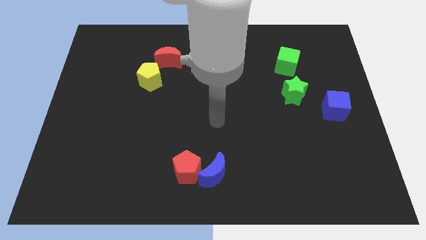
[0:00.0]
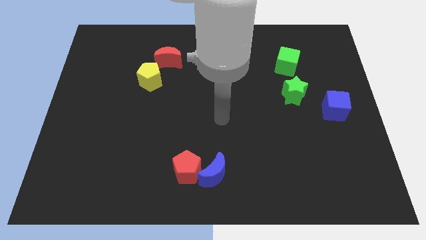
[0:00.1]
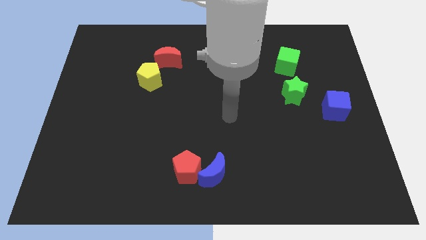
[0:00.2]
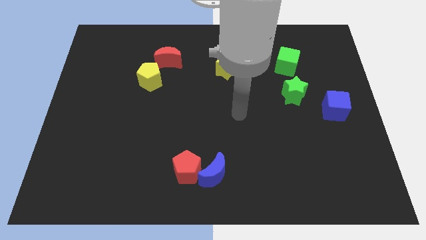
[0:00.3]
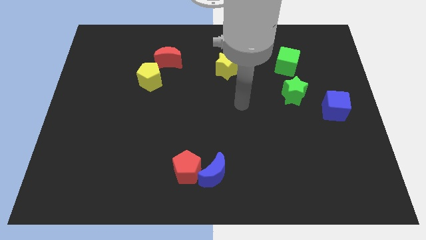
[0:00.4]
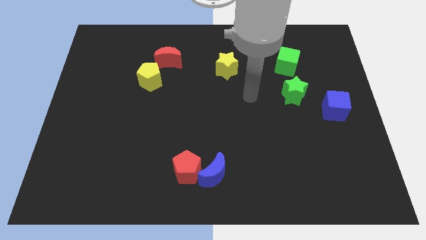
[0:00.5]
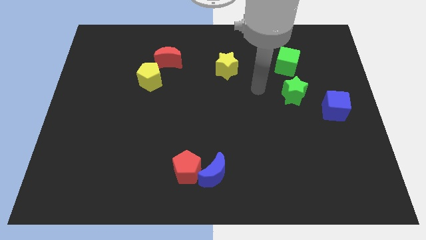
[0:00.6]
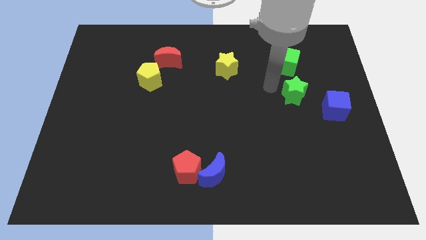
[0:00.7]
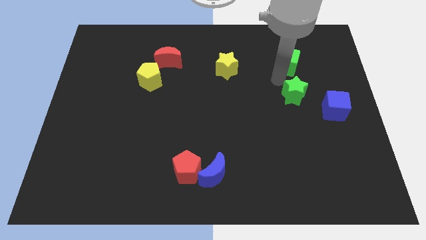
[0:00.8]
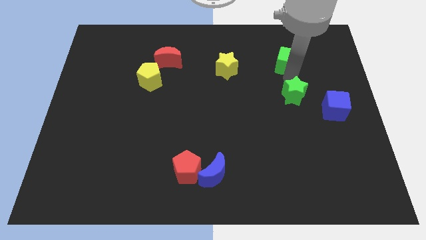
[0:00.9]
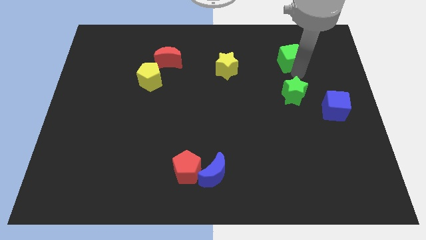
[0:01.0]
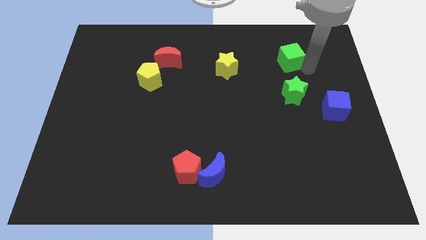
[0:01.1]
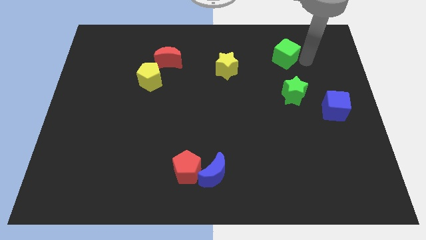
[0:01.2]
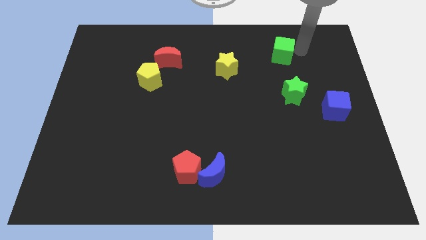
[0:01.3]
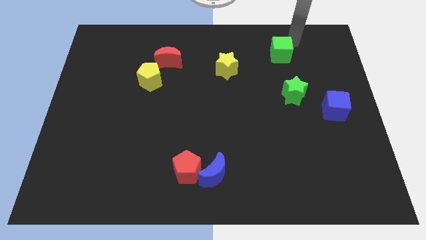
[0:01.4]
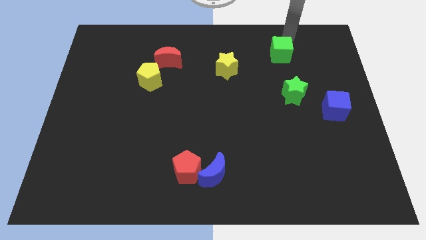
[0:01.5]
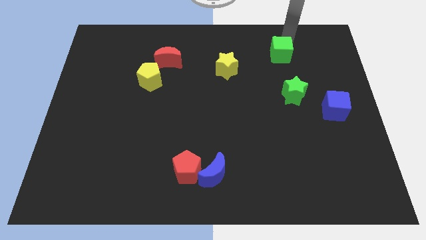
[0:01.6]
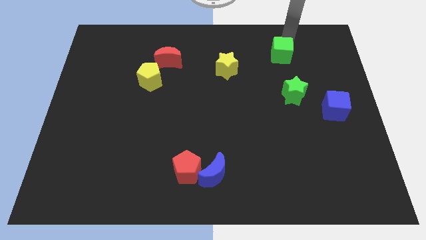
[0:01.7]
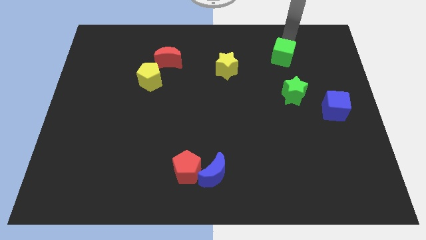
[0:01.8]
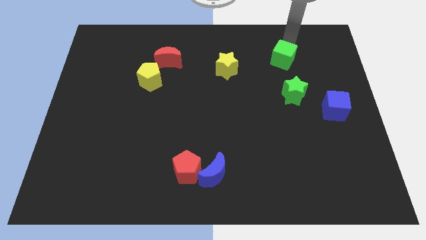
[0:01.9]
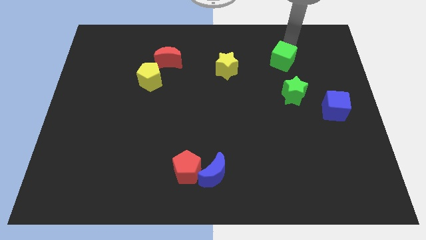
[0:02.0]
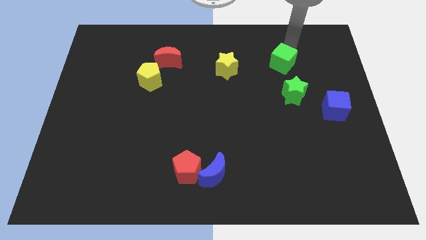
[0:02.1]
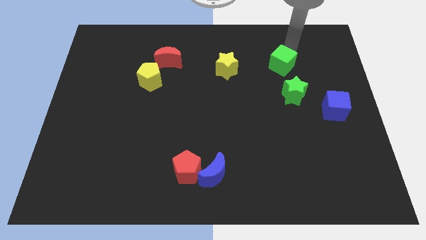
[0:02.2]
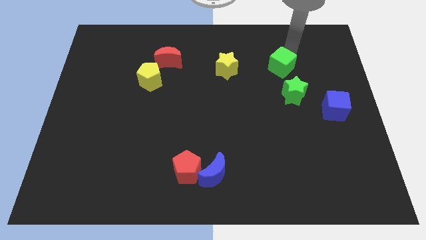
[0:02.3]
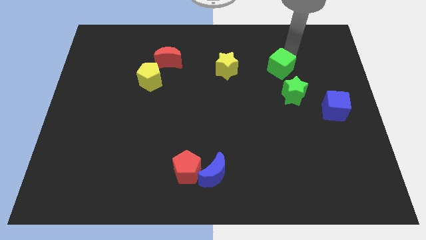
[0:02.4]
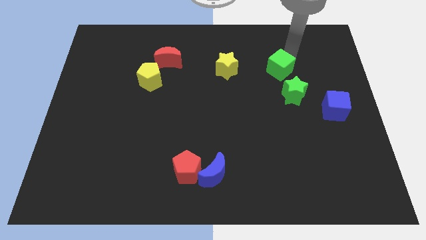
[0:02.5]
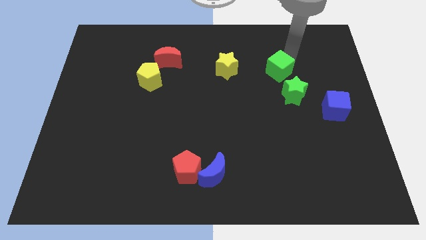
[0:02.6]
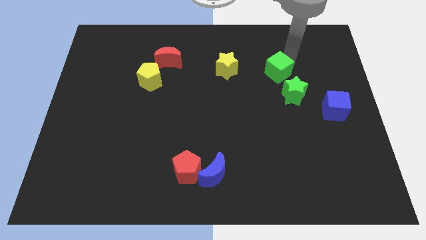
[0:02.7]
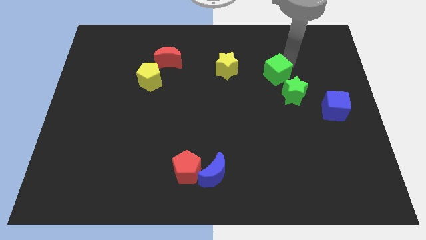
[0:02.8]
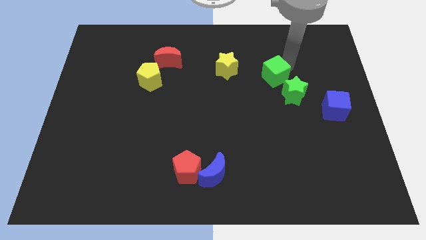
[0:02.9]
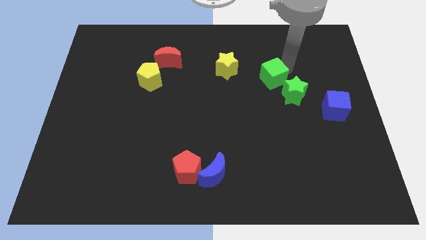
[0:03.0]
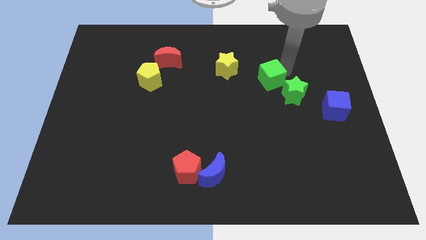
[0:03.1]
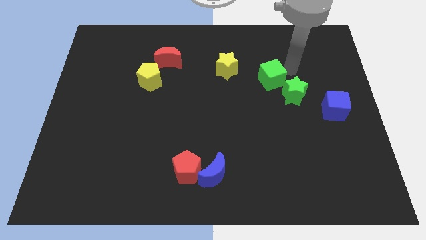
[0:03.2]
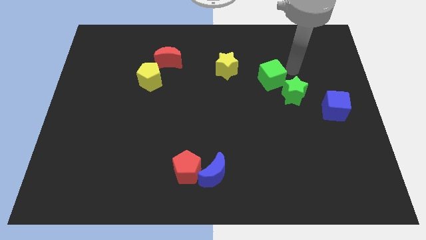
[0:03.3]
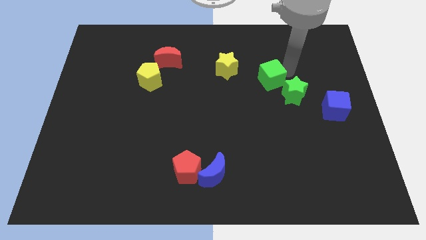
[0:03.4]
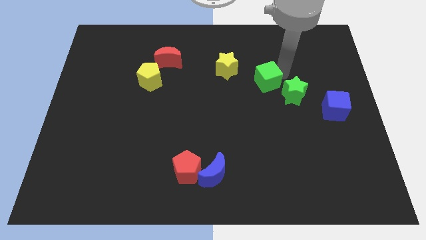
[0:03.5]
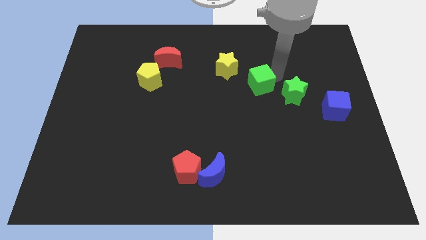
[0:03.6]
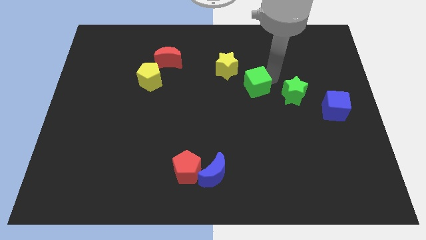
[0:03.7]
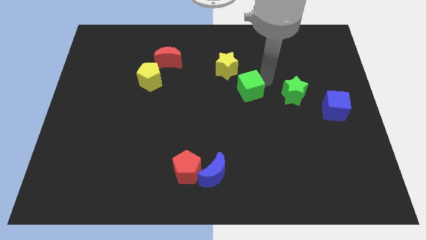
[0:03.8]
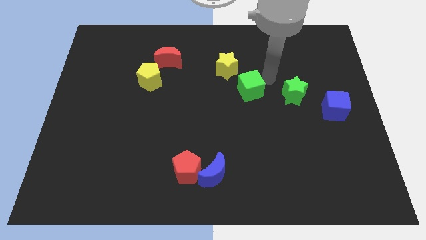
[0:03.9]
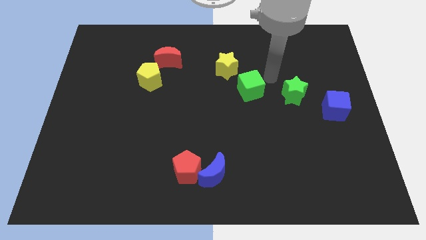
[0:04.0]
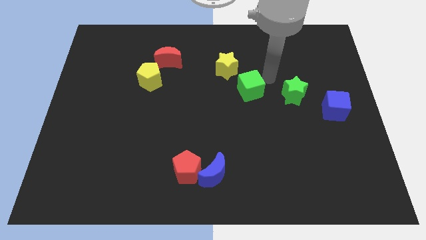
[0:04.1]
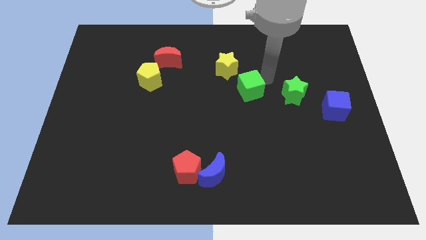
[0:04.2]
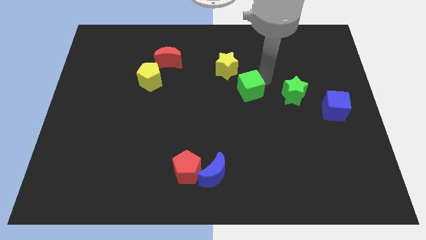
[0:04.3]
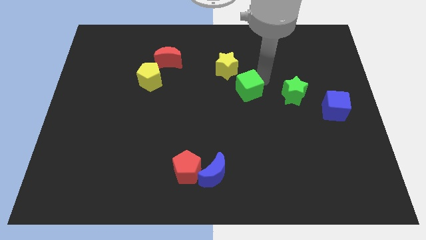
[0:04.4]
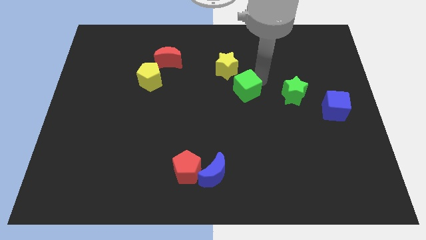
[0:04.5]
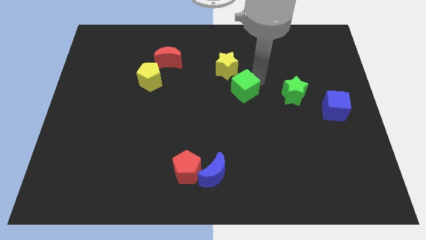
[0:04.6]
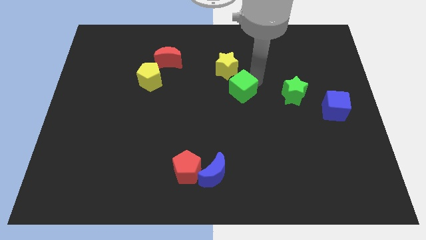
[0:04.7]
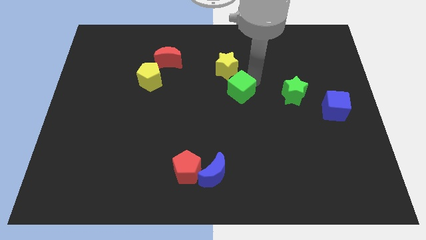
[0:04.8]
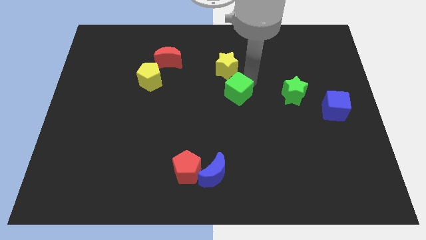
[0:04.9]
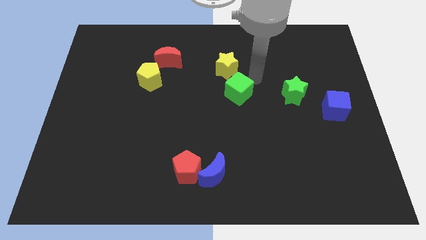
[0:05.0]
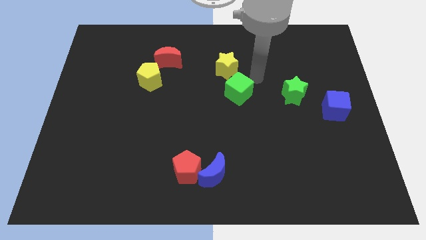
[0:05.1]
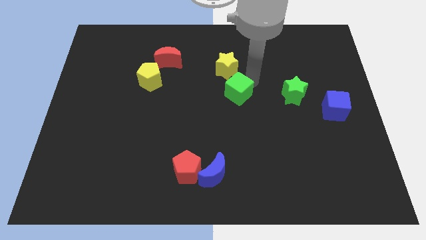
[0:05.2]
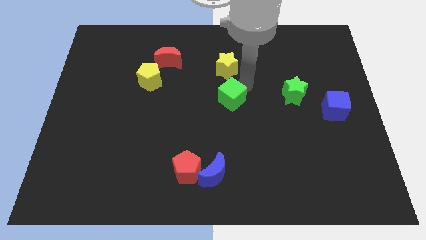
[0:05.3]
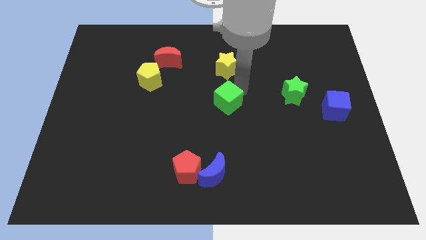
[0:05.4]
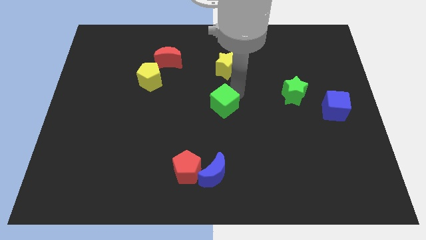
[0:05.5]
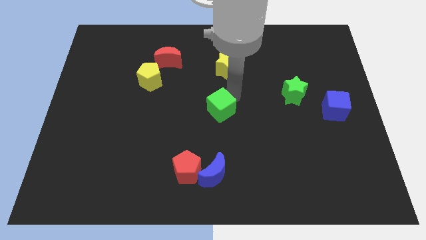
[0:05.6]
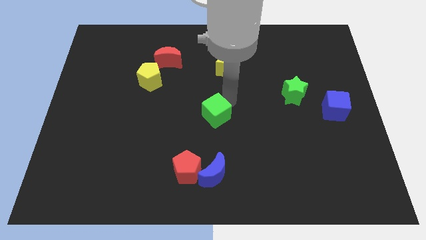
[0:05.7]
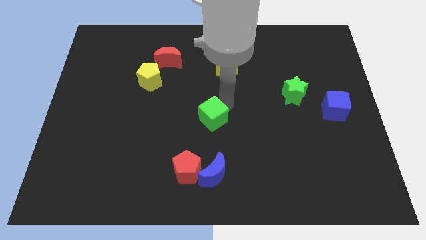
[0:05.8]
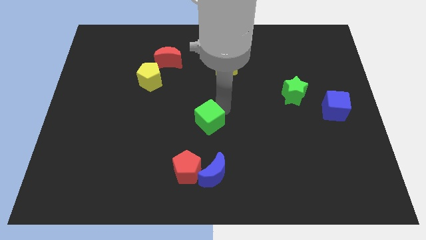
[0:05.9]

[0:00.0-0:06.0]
slide the green cube to the top of the red pentagon

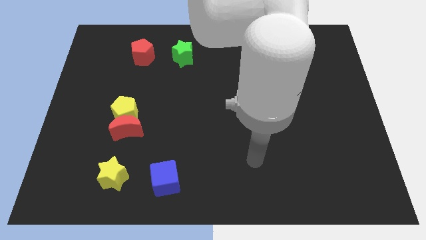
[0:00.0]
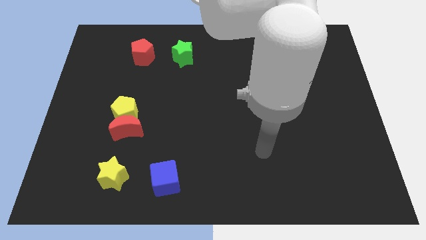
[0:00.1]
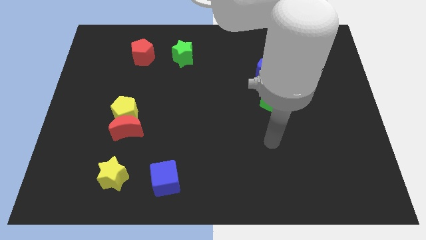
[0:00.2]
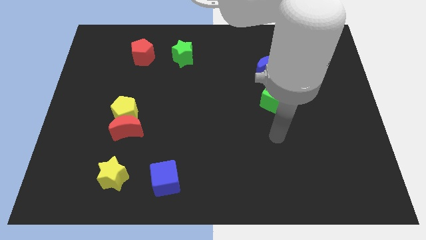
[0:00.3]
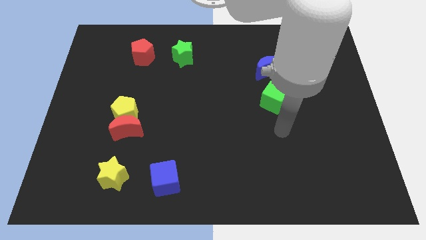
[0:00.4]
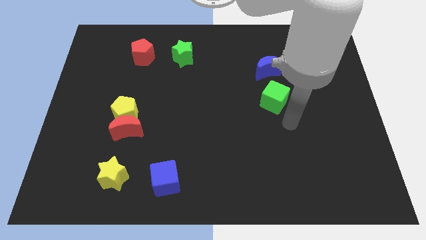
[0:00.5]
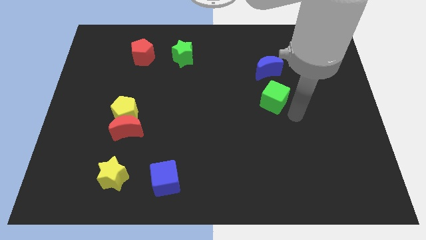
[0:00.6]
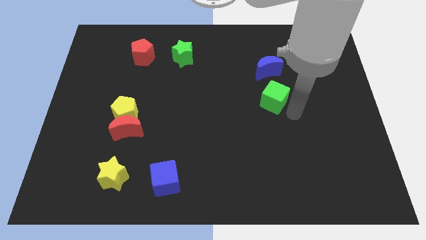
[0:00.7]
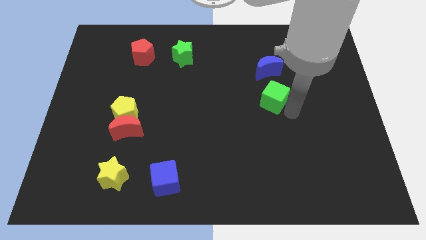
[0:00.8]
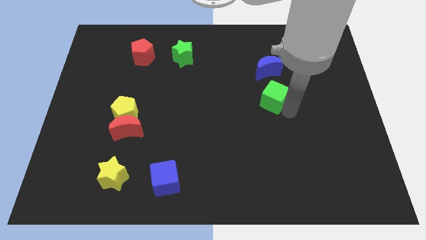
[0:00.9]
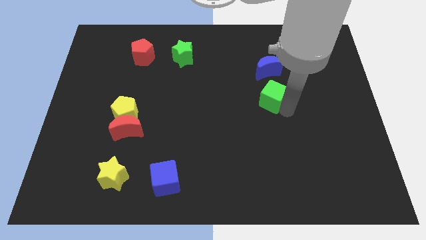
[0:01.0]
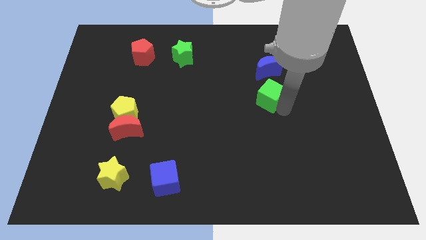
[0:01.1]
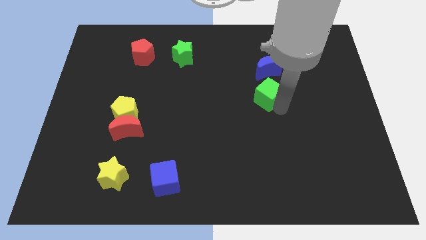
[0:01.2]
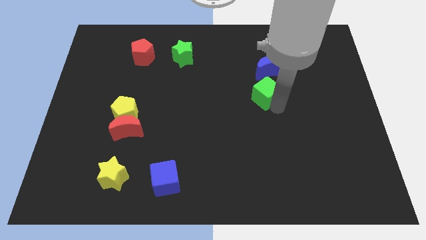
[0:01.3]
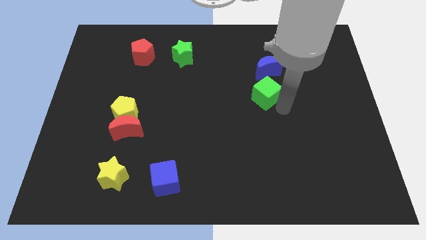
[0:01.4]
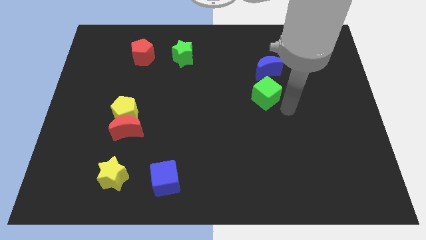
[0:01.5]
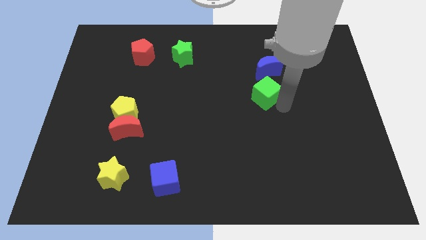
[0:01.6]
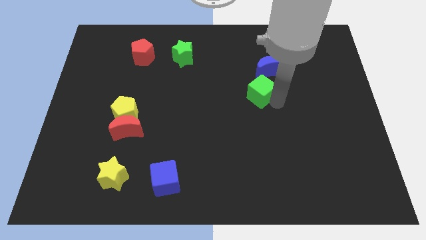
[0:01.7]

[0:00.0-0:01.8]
slide the green cube to the bottom left of the blue moon

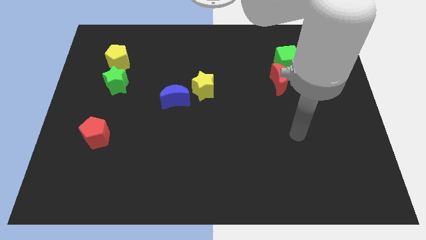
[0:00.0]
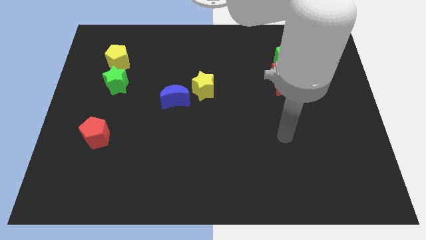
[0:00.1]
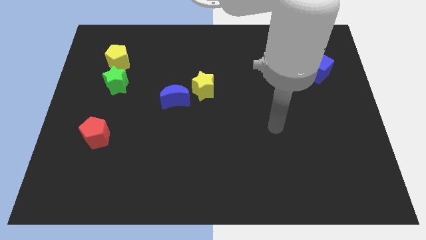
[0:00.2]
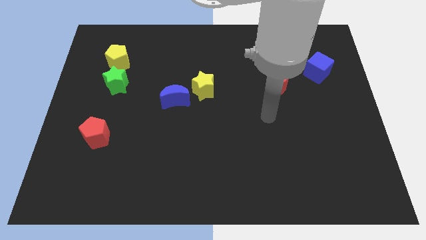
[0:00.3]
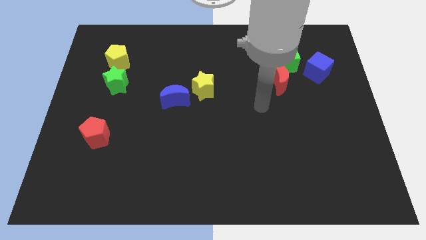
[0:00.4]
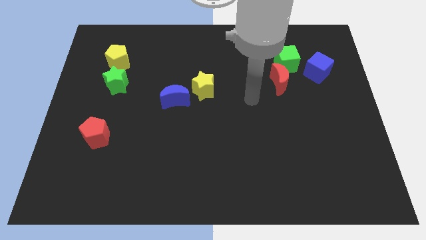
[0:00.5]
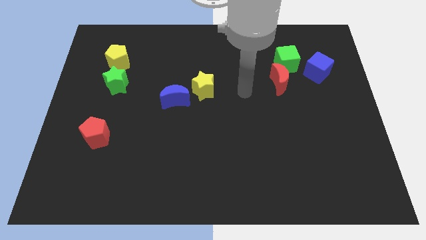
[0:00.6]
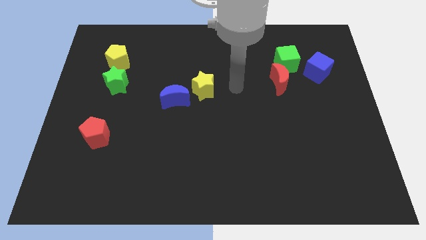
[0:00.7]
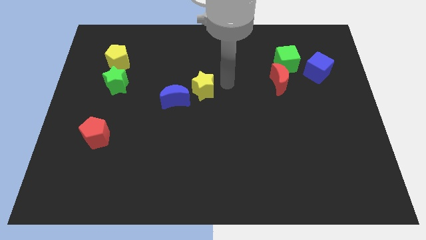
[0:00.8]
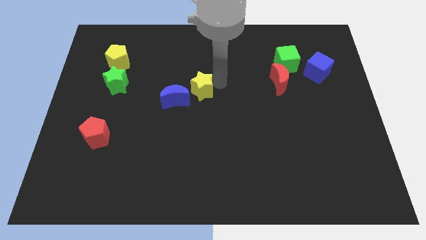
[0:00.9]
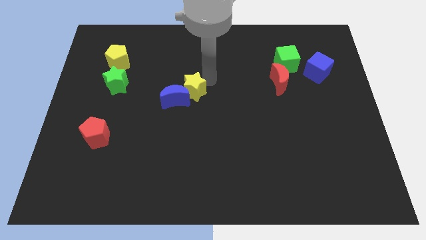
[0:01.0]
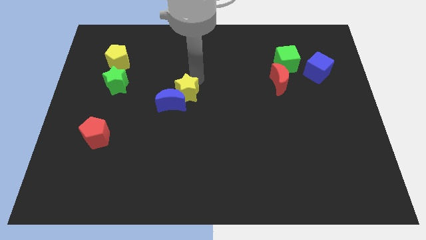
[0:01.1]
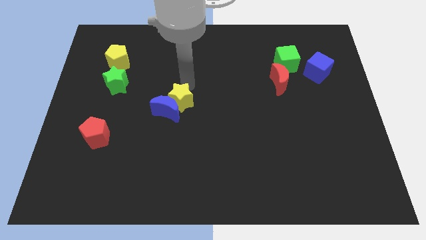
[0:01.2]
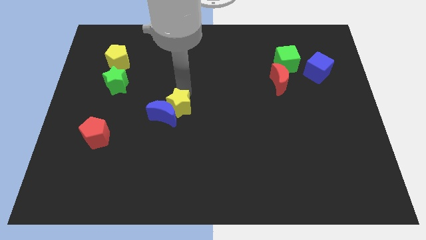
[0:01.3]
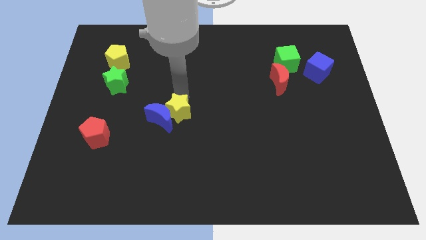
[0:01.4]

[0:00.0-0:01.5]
slide the blue moon right of the red pentagon
